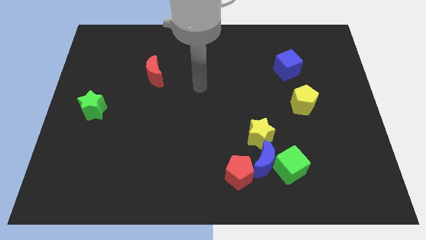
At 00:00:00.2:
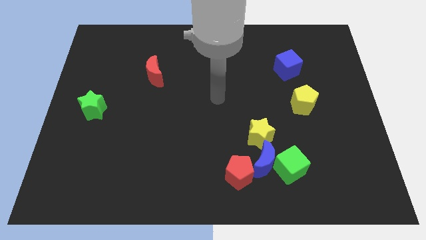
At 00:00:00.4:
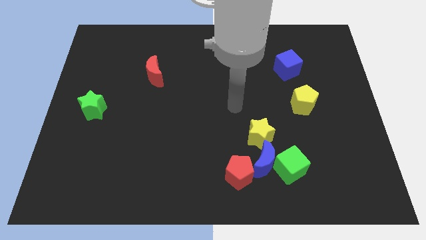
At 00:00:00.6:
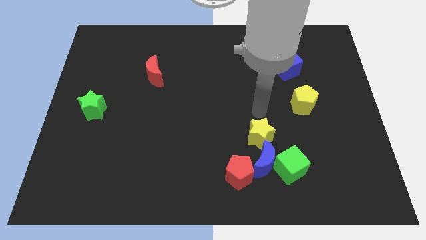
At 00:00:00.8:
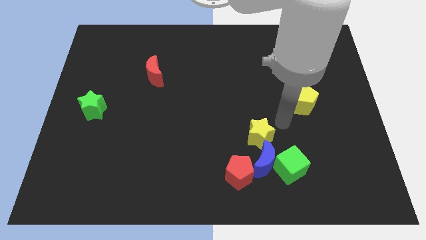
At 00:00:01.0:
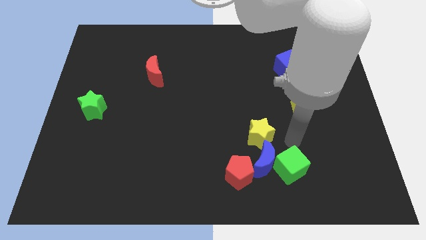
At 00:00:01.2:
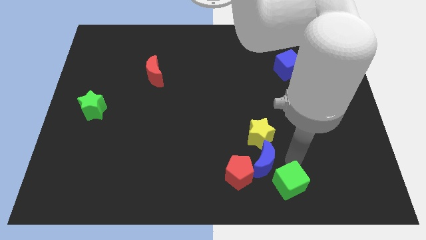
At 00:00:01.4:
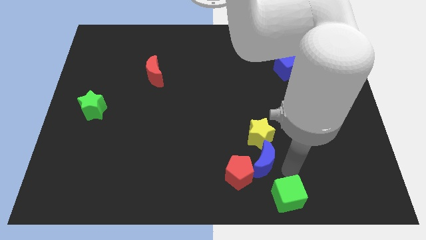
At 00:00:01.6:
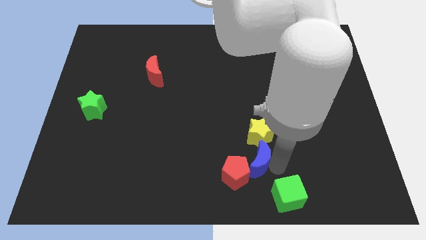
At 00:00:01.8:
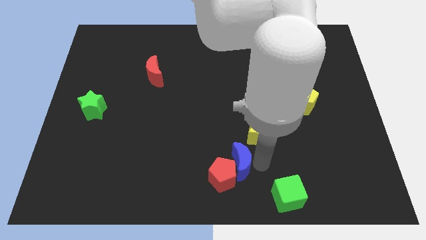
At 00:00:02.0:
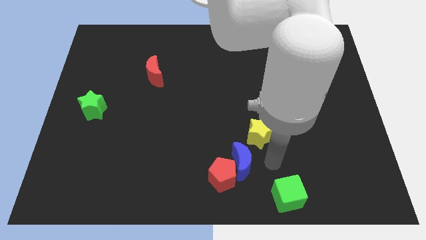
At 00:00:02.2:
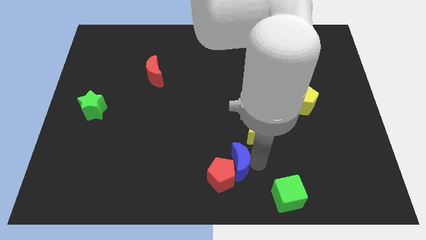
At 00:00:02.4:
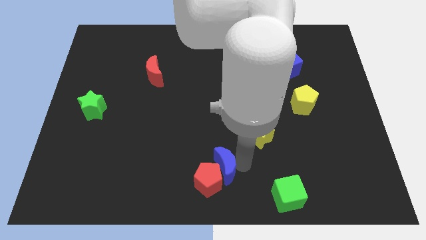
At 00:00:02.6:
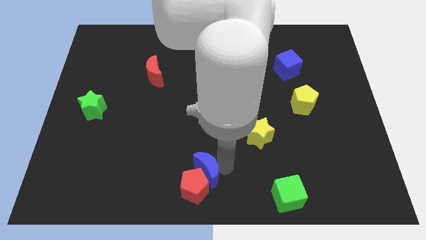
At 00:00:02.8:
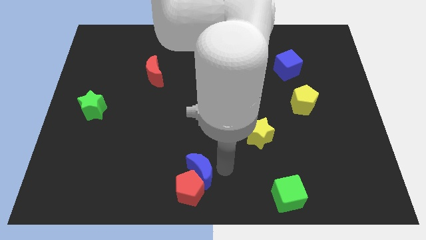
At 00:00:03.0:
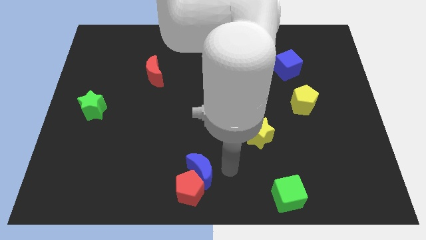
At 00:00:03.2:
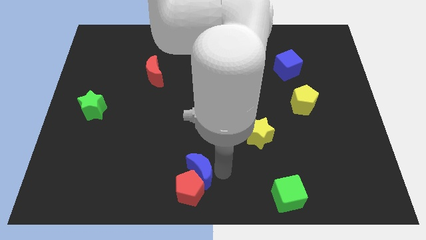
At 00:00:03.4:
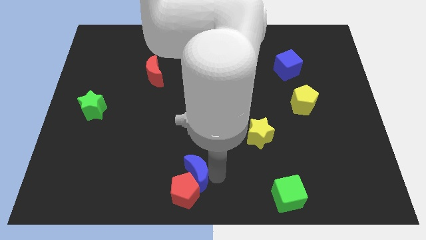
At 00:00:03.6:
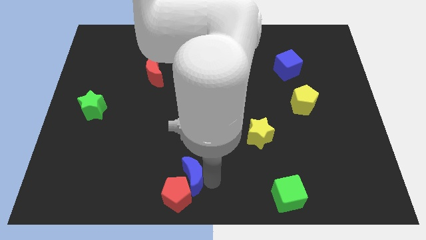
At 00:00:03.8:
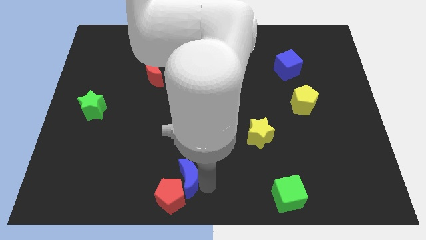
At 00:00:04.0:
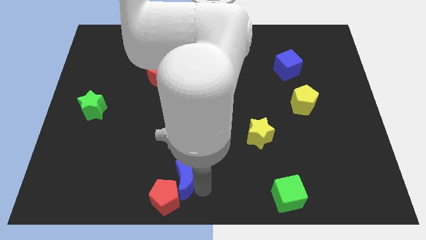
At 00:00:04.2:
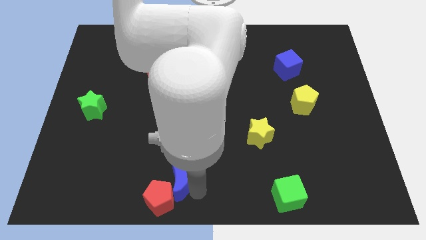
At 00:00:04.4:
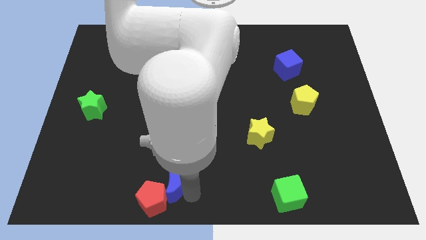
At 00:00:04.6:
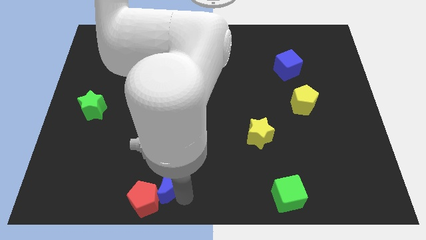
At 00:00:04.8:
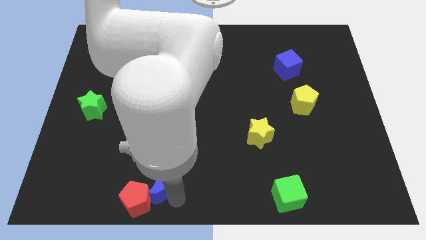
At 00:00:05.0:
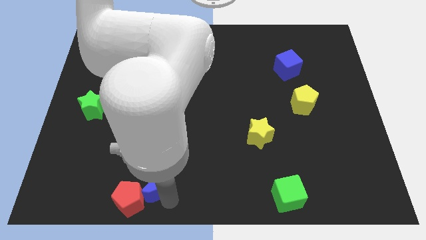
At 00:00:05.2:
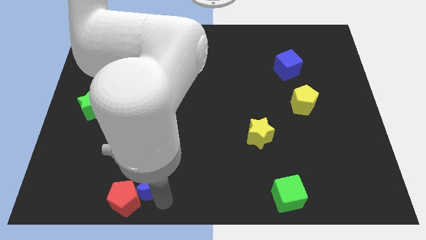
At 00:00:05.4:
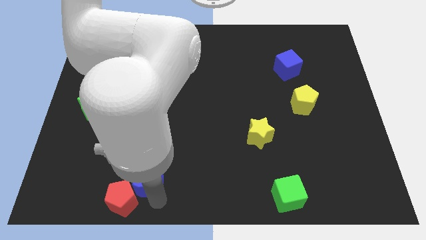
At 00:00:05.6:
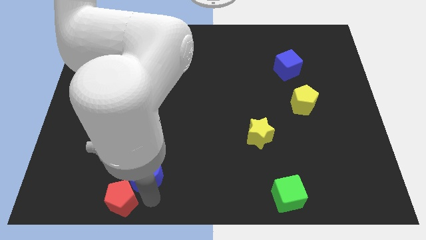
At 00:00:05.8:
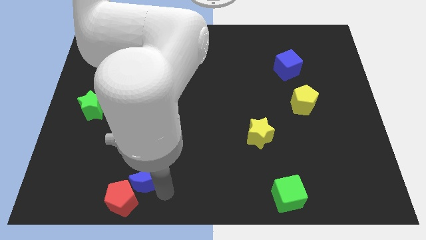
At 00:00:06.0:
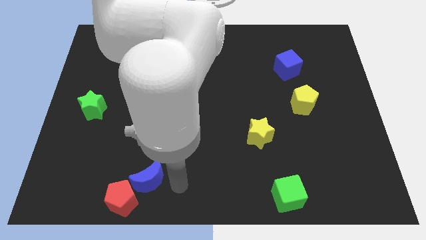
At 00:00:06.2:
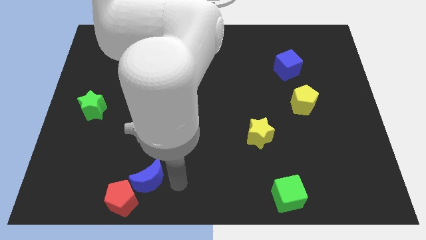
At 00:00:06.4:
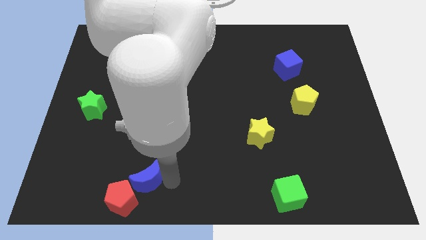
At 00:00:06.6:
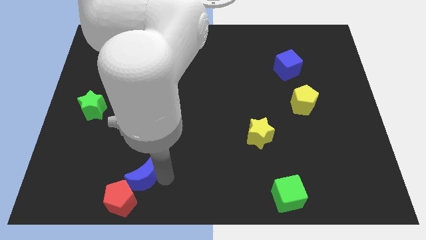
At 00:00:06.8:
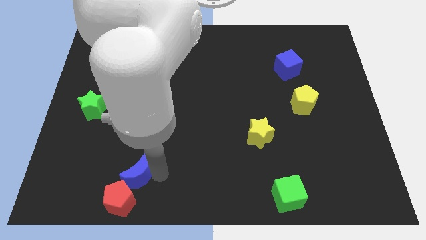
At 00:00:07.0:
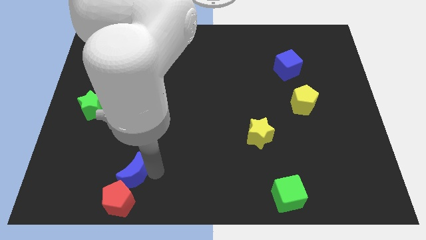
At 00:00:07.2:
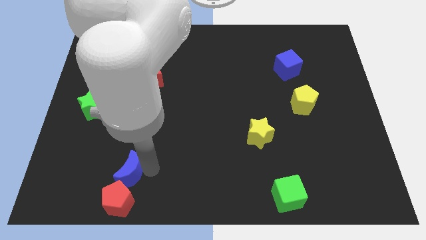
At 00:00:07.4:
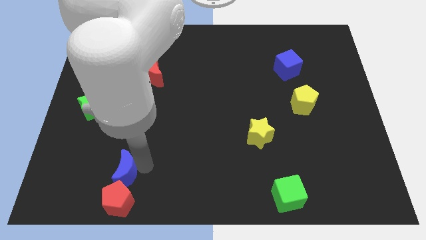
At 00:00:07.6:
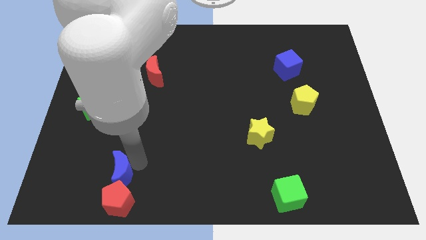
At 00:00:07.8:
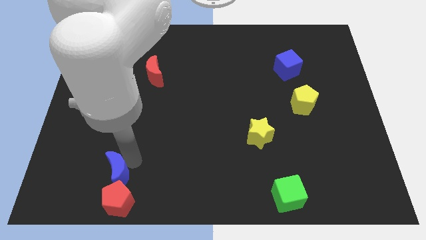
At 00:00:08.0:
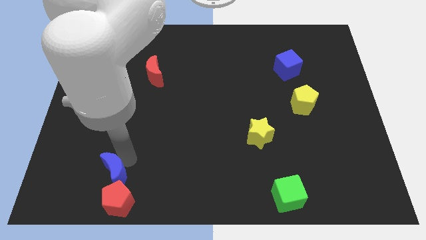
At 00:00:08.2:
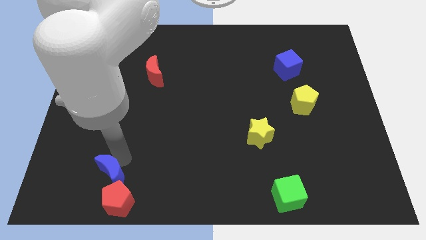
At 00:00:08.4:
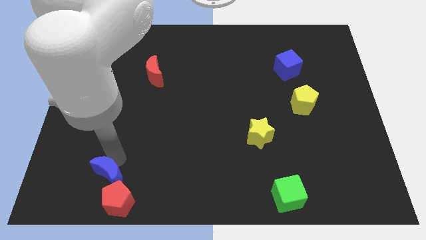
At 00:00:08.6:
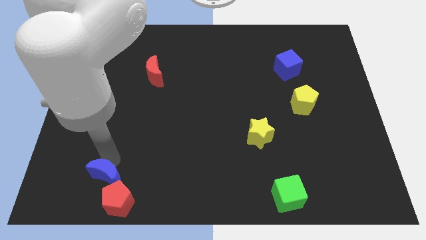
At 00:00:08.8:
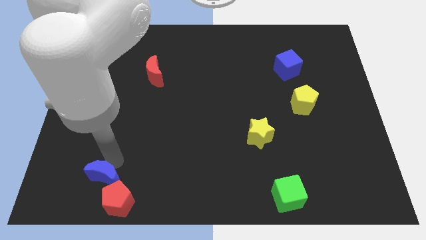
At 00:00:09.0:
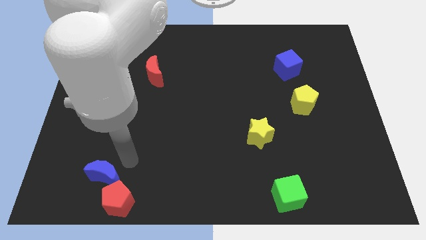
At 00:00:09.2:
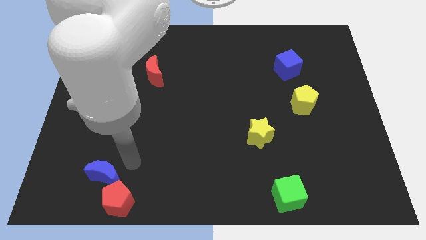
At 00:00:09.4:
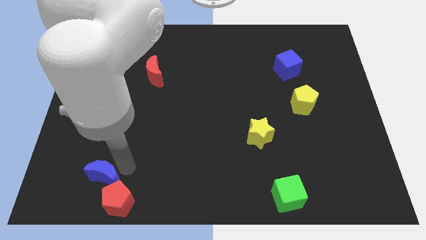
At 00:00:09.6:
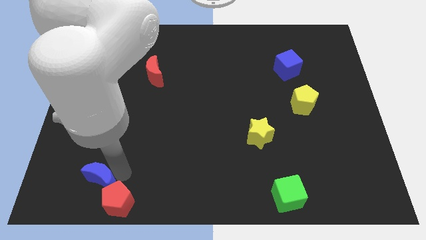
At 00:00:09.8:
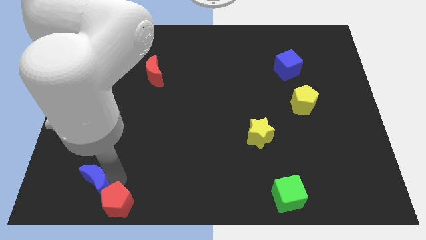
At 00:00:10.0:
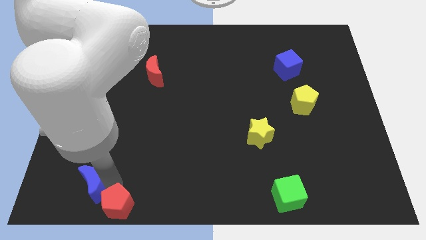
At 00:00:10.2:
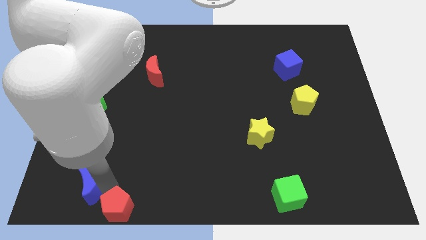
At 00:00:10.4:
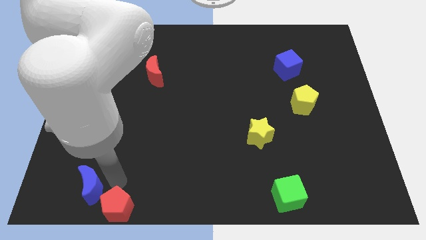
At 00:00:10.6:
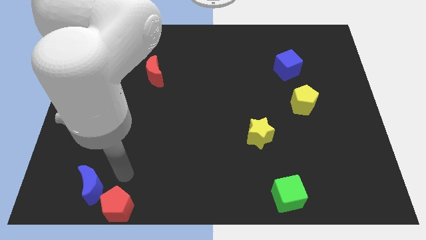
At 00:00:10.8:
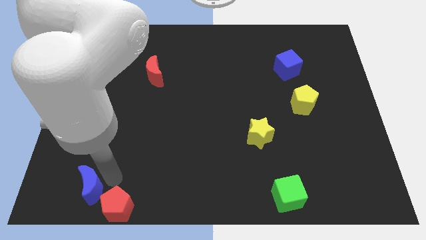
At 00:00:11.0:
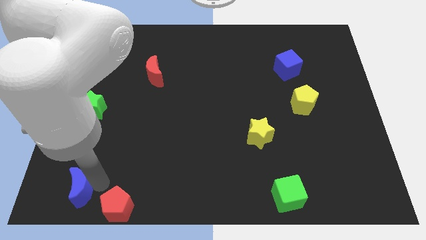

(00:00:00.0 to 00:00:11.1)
push the blue moon to the bottom left corner

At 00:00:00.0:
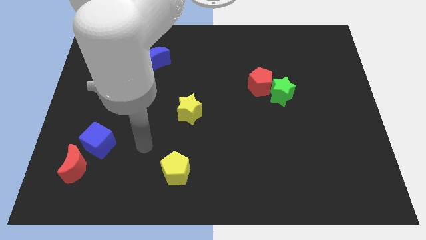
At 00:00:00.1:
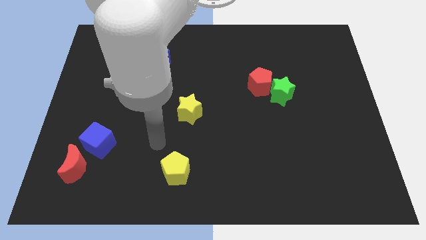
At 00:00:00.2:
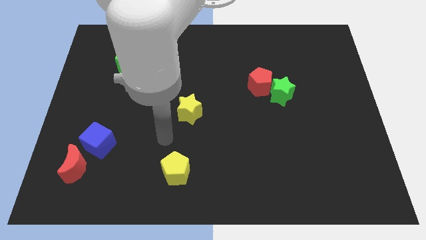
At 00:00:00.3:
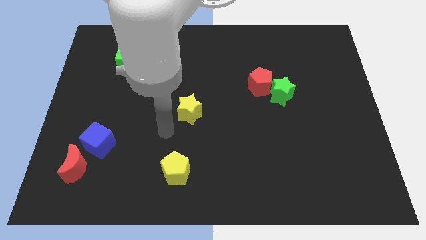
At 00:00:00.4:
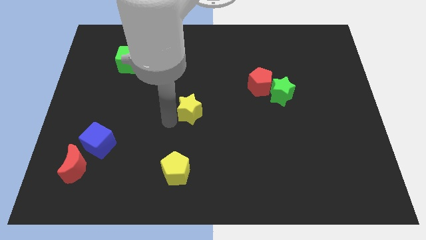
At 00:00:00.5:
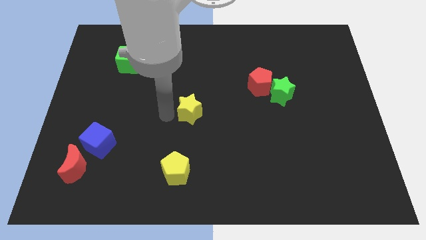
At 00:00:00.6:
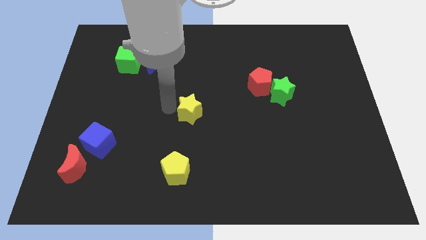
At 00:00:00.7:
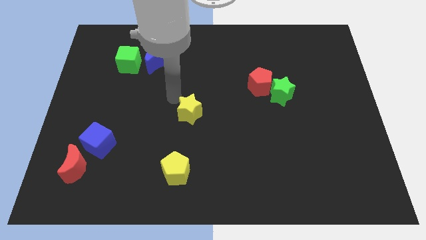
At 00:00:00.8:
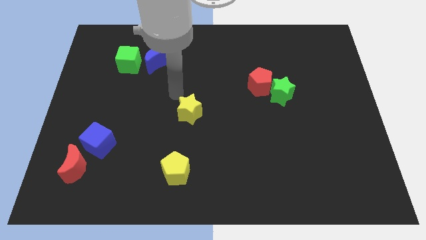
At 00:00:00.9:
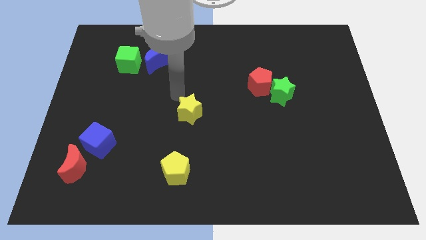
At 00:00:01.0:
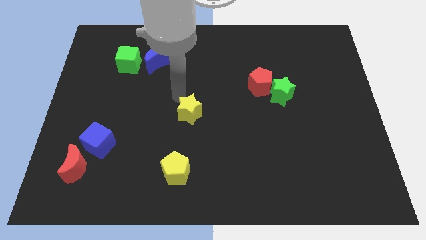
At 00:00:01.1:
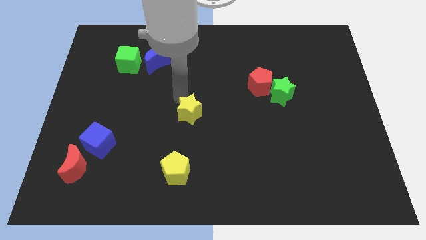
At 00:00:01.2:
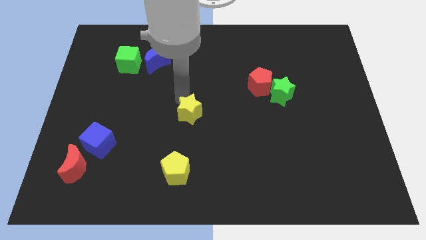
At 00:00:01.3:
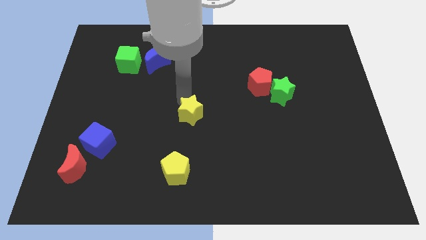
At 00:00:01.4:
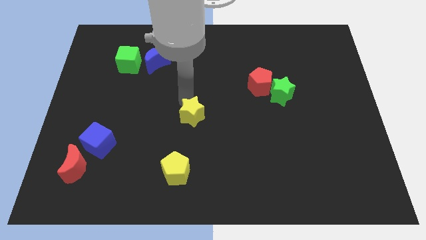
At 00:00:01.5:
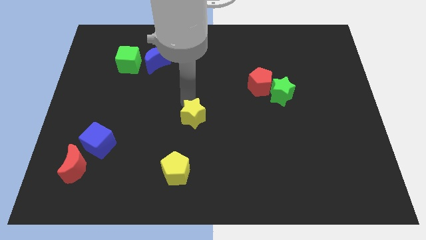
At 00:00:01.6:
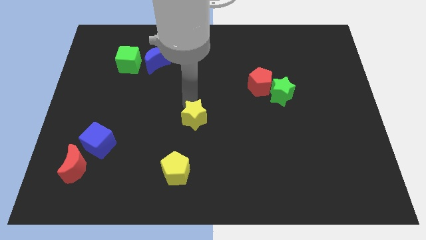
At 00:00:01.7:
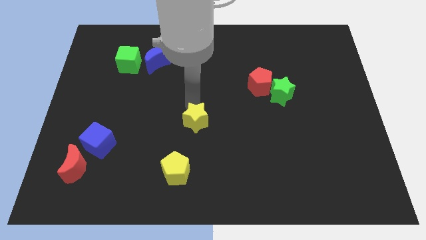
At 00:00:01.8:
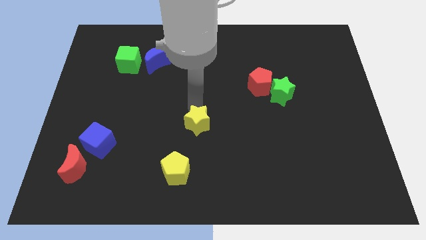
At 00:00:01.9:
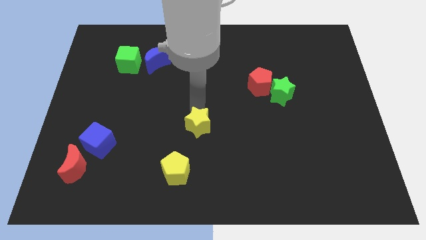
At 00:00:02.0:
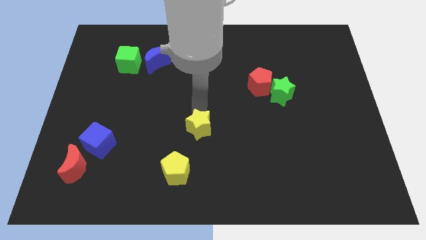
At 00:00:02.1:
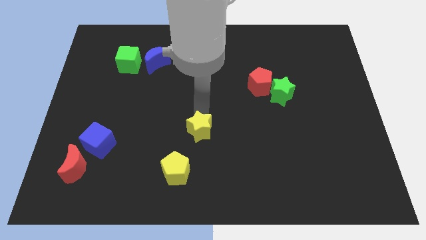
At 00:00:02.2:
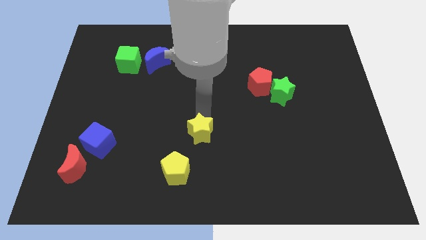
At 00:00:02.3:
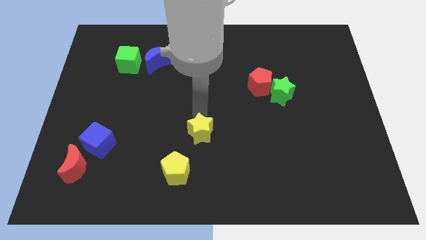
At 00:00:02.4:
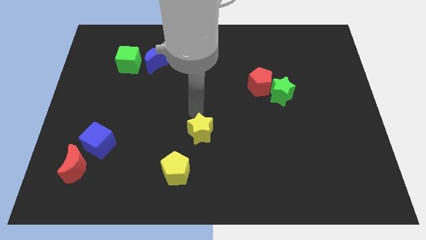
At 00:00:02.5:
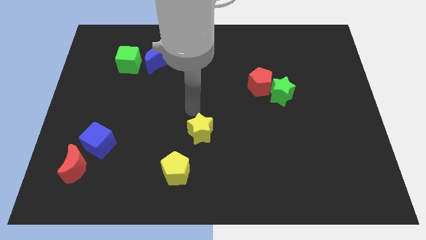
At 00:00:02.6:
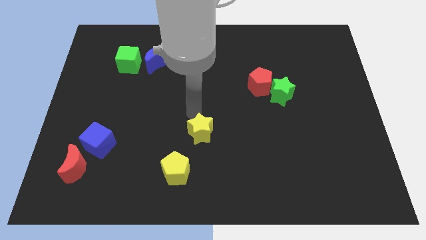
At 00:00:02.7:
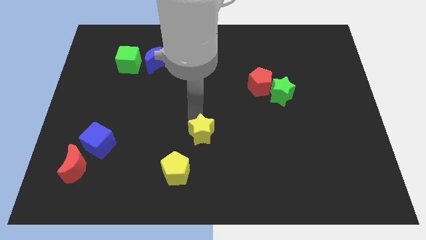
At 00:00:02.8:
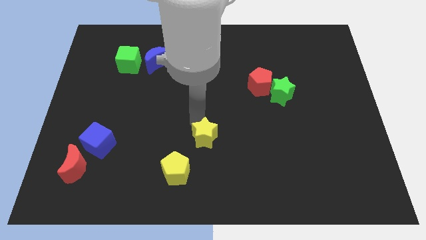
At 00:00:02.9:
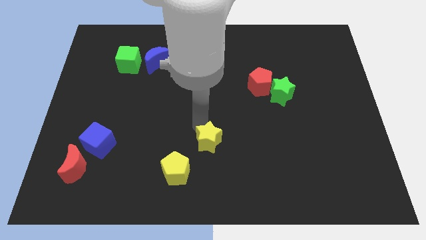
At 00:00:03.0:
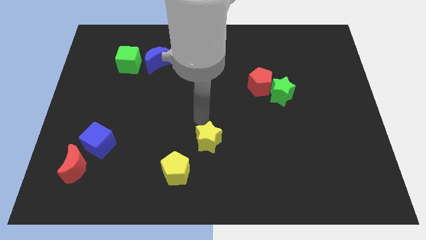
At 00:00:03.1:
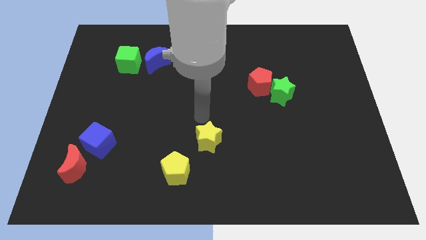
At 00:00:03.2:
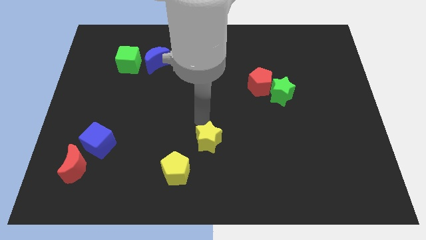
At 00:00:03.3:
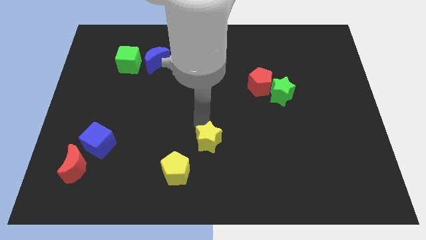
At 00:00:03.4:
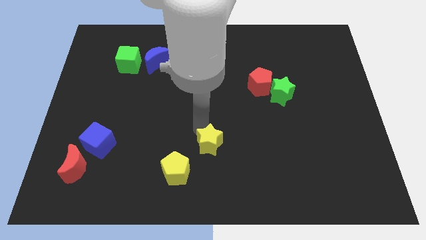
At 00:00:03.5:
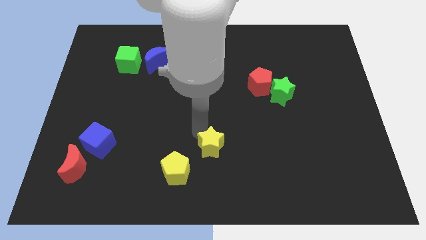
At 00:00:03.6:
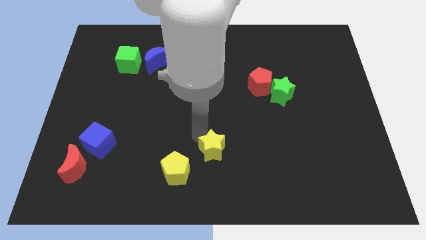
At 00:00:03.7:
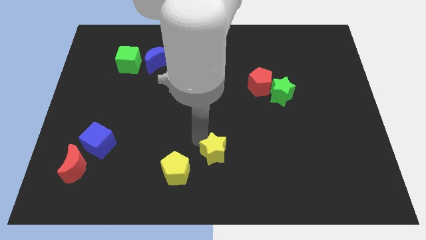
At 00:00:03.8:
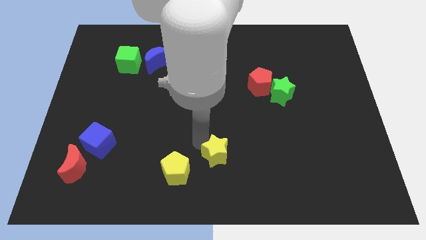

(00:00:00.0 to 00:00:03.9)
push the yellow star to the bottom
